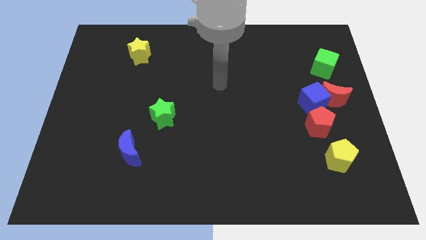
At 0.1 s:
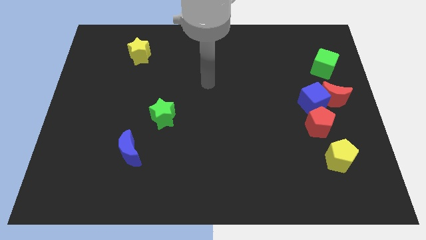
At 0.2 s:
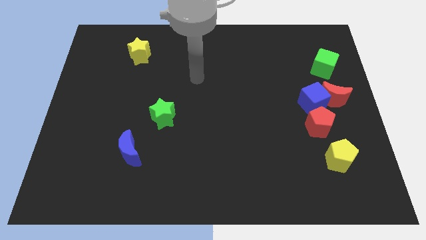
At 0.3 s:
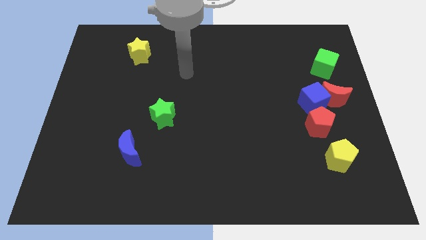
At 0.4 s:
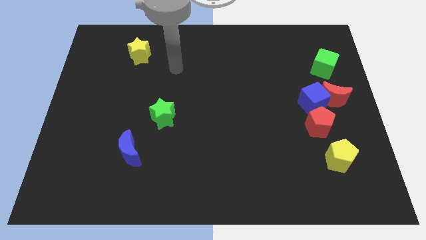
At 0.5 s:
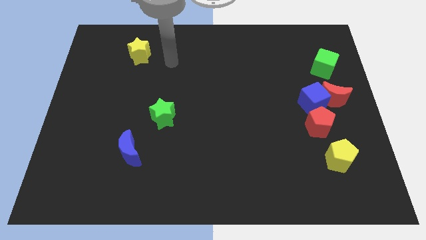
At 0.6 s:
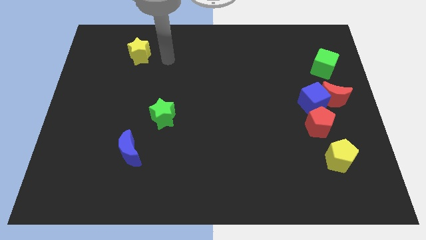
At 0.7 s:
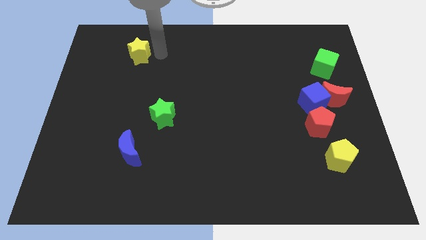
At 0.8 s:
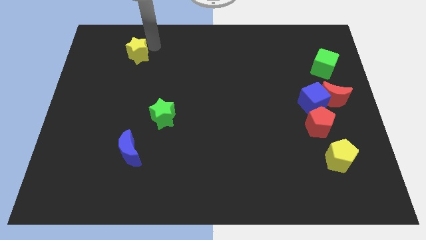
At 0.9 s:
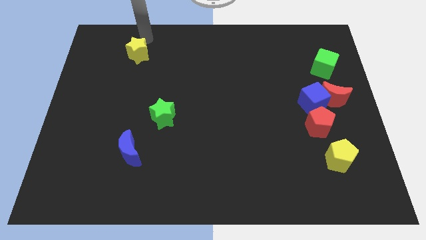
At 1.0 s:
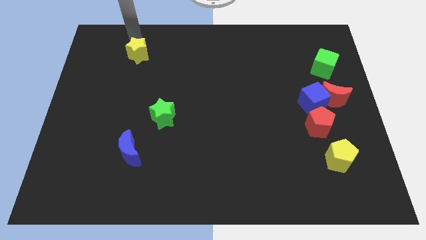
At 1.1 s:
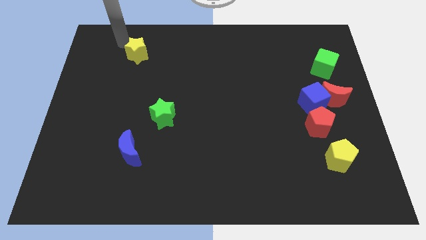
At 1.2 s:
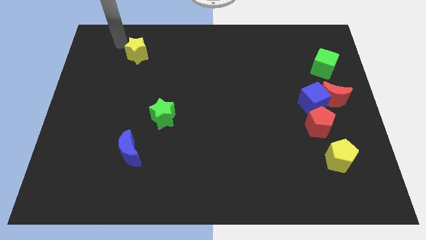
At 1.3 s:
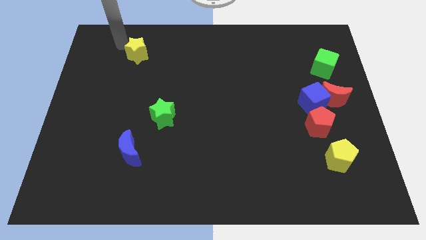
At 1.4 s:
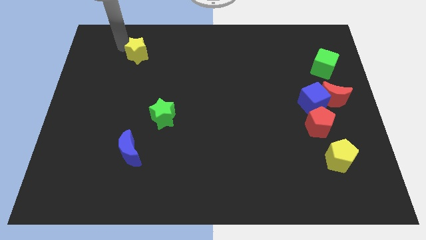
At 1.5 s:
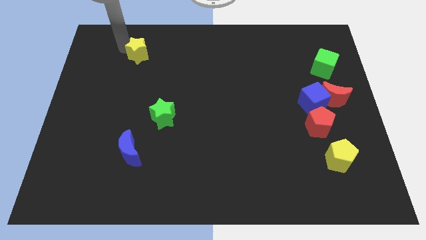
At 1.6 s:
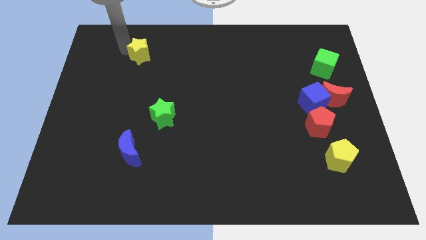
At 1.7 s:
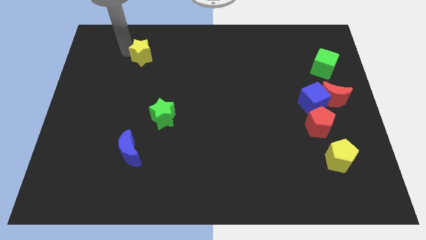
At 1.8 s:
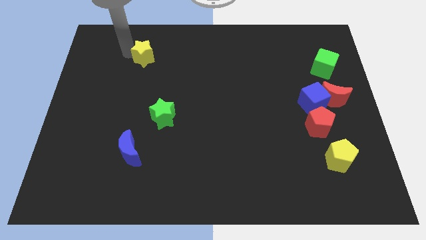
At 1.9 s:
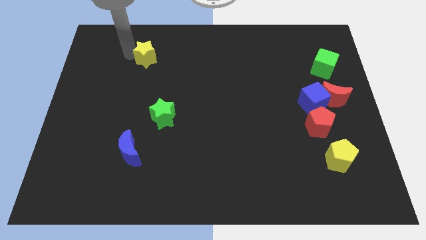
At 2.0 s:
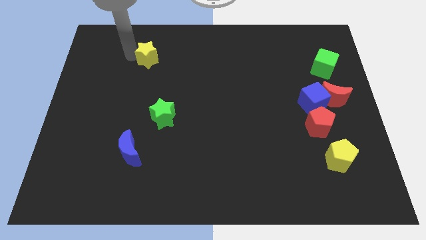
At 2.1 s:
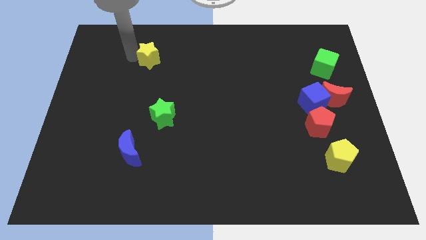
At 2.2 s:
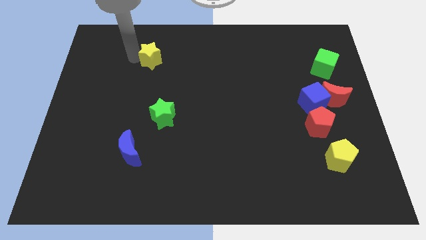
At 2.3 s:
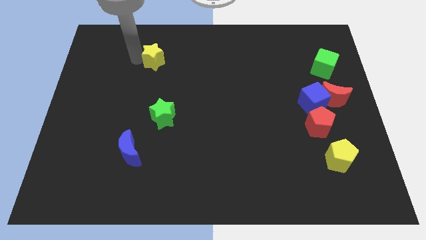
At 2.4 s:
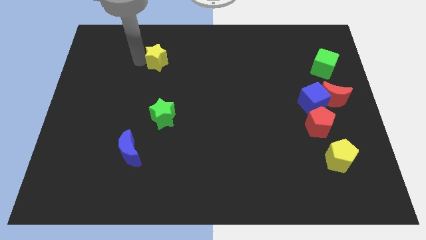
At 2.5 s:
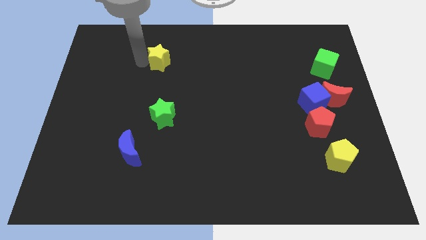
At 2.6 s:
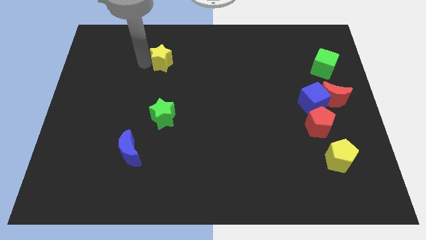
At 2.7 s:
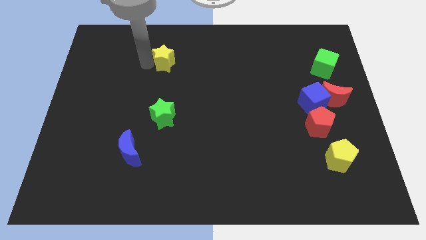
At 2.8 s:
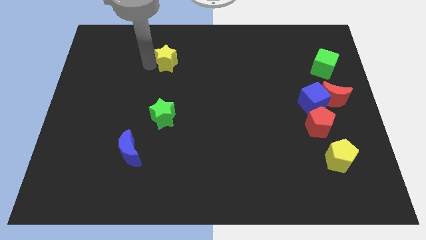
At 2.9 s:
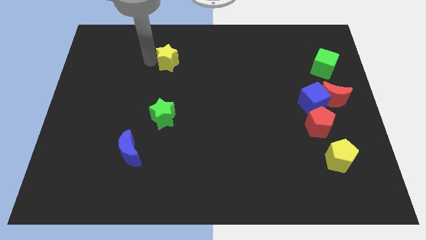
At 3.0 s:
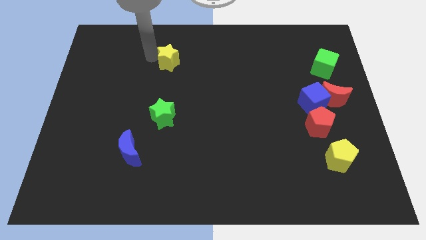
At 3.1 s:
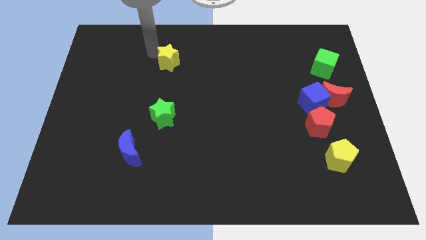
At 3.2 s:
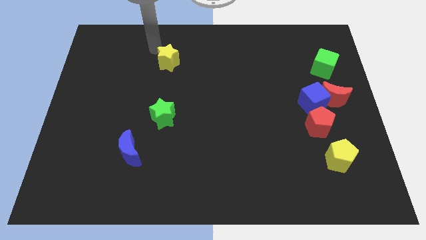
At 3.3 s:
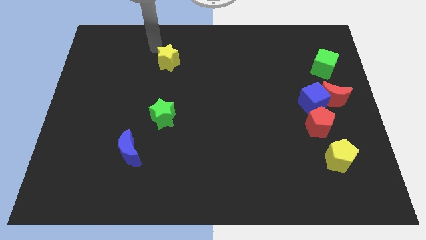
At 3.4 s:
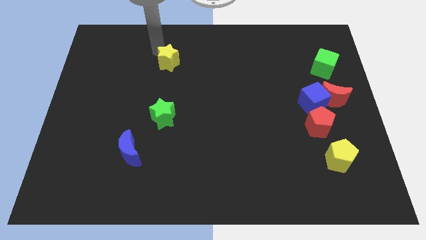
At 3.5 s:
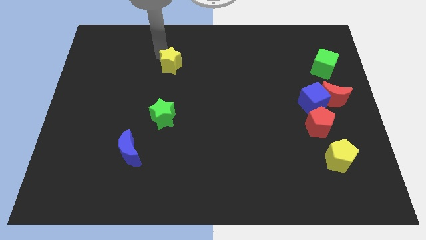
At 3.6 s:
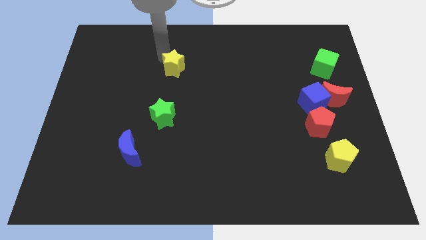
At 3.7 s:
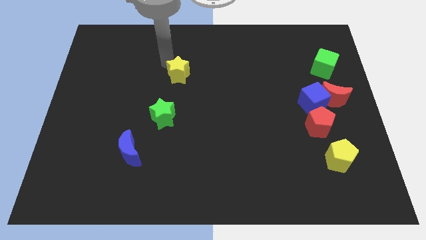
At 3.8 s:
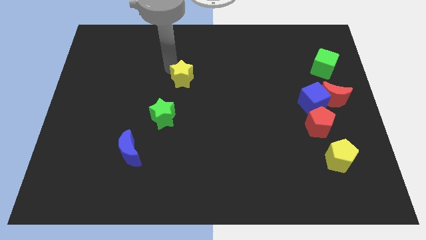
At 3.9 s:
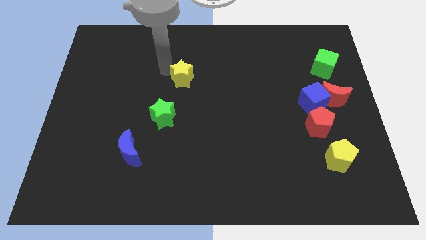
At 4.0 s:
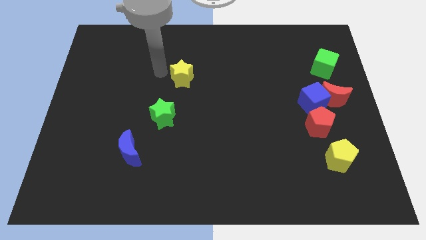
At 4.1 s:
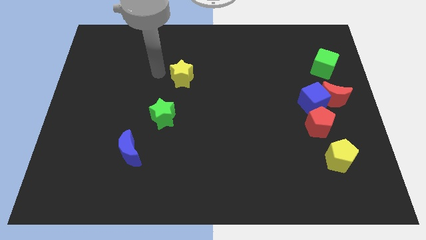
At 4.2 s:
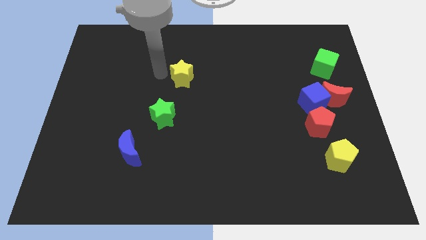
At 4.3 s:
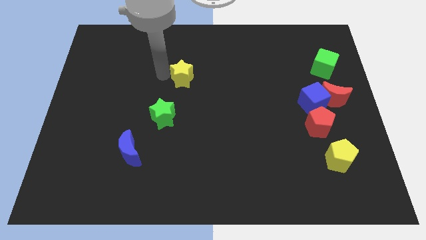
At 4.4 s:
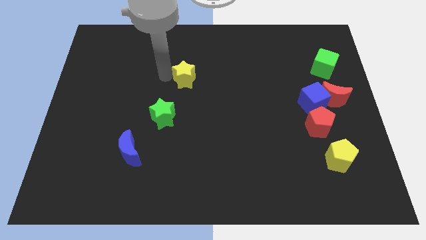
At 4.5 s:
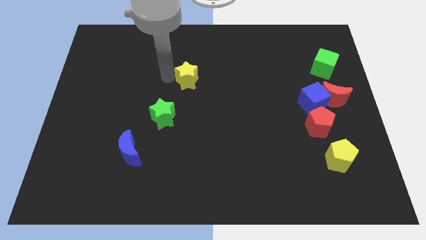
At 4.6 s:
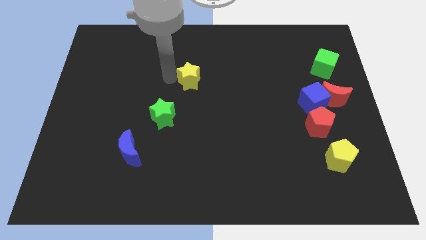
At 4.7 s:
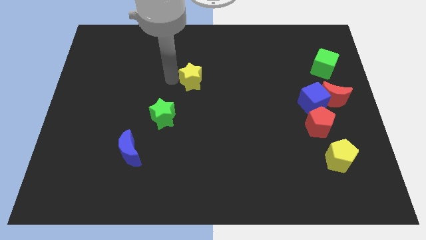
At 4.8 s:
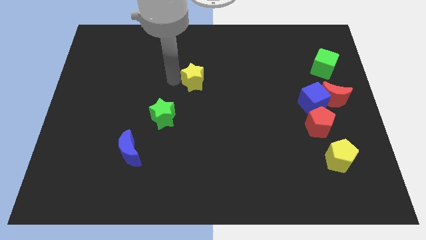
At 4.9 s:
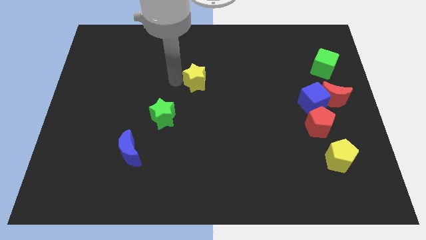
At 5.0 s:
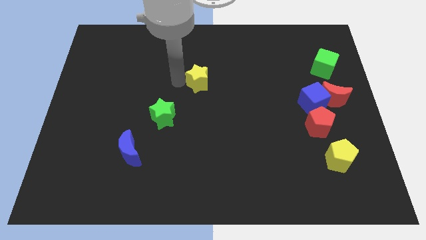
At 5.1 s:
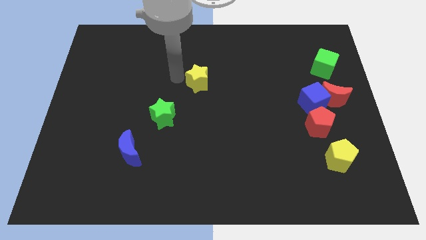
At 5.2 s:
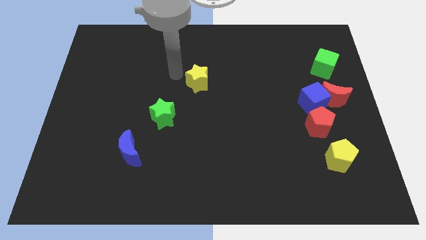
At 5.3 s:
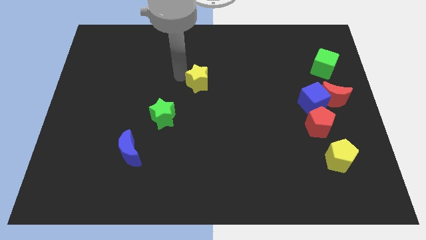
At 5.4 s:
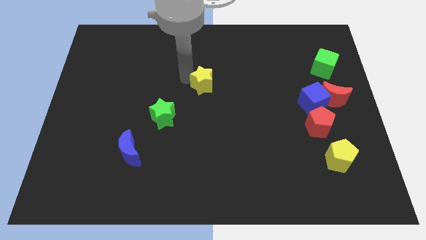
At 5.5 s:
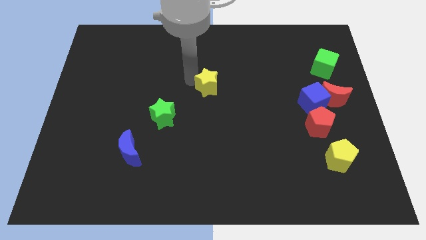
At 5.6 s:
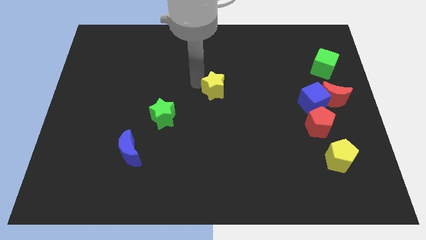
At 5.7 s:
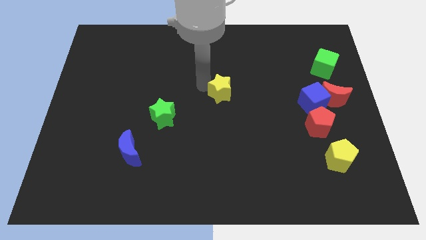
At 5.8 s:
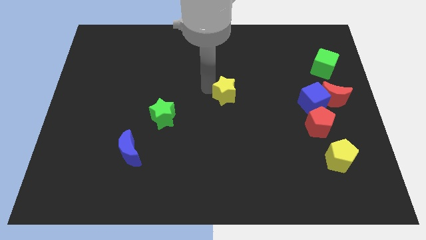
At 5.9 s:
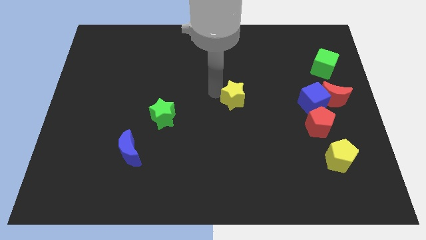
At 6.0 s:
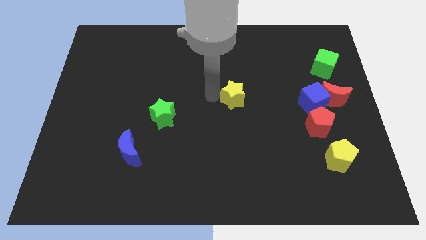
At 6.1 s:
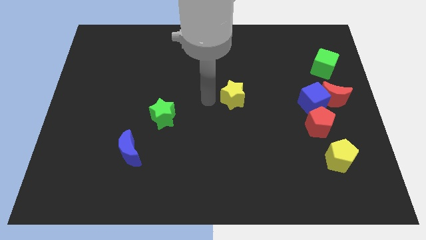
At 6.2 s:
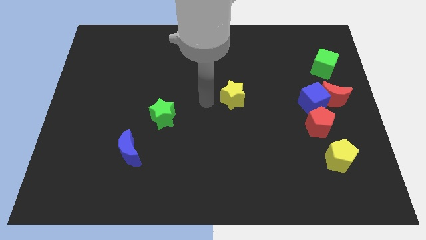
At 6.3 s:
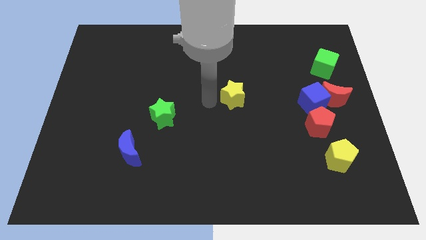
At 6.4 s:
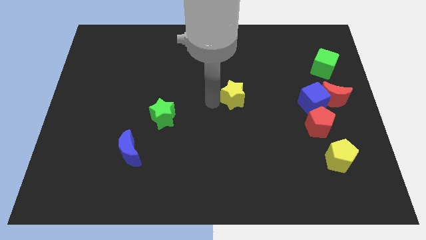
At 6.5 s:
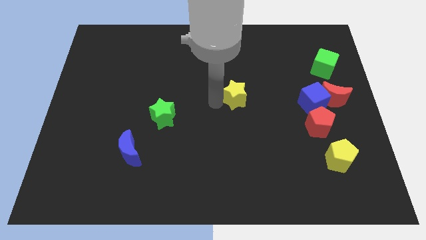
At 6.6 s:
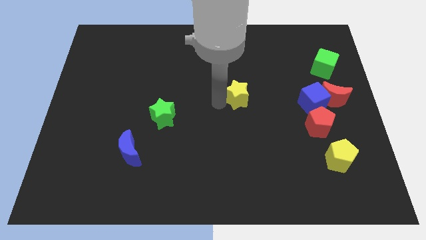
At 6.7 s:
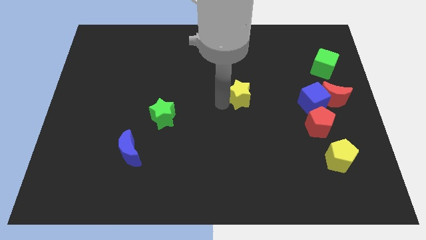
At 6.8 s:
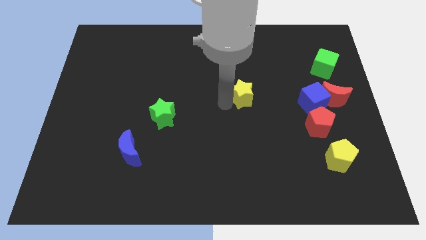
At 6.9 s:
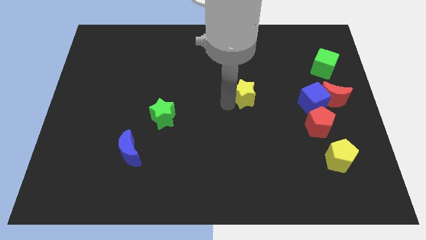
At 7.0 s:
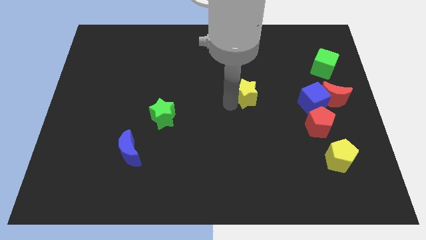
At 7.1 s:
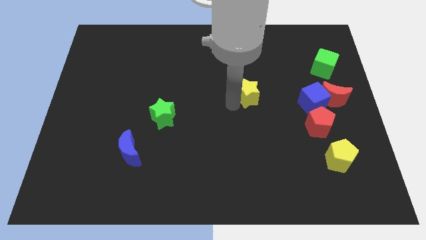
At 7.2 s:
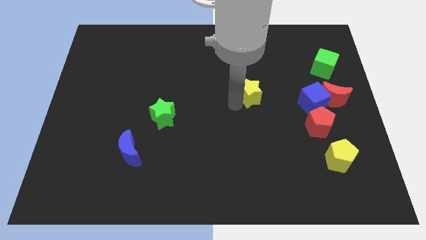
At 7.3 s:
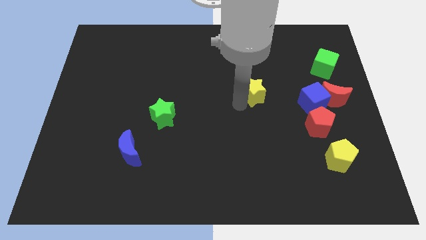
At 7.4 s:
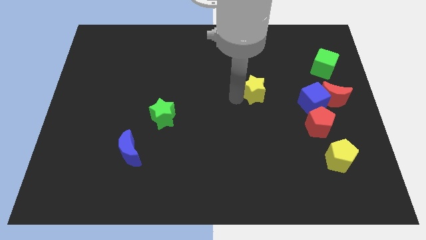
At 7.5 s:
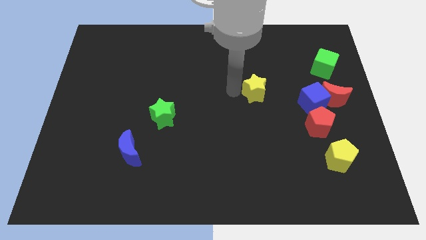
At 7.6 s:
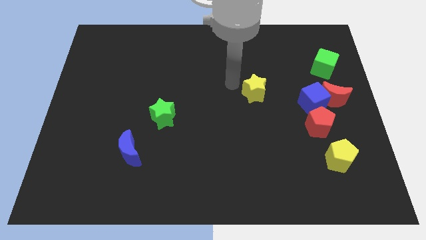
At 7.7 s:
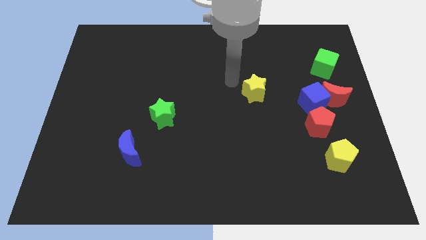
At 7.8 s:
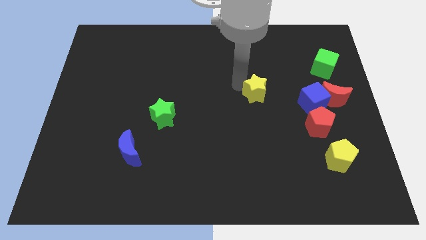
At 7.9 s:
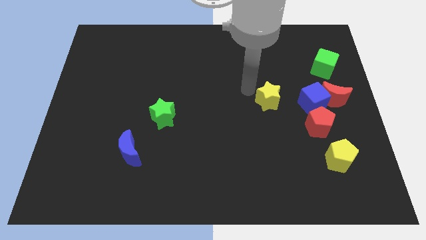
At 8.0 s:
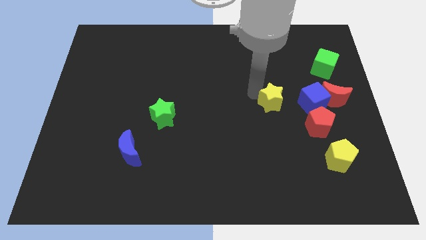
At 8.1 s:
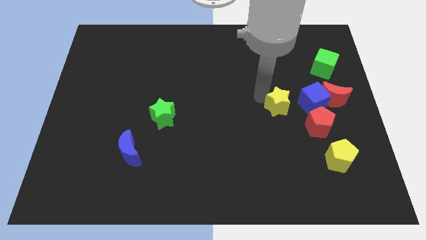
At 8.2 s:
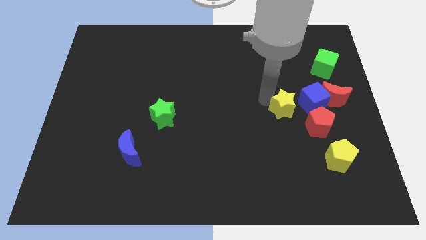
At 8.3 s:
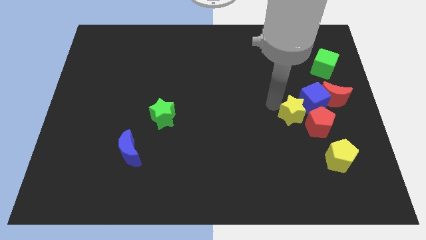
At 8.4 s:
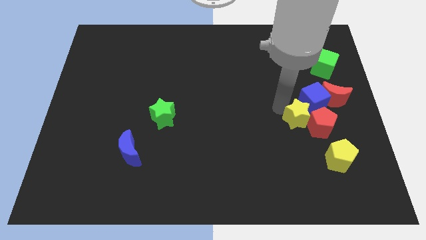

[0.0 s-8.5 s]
push the yellow star close to the red pentagon
